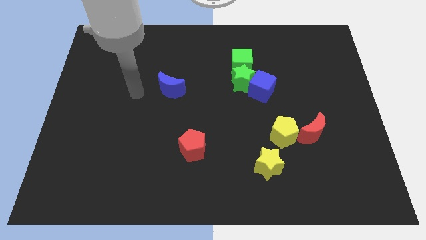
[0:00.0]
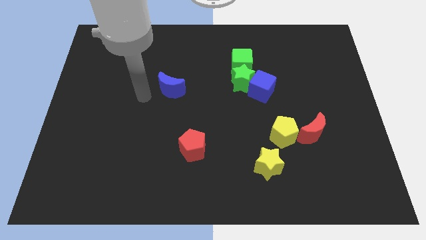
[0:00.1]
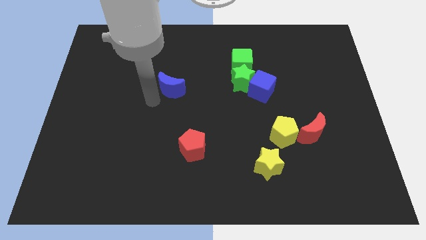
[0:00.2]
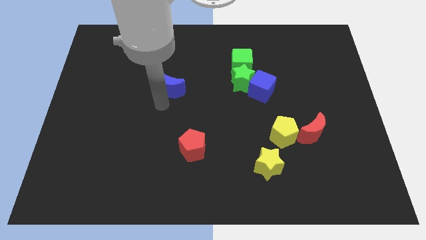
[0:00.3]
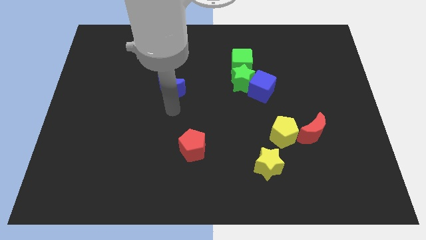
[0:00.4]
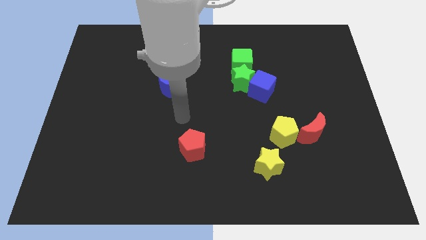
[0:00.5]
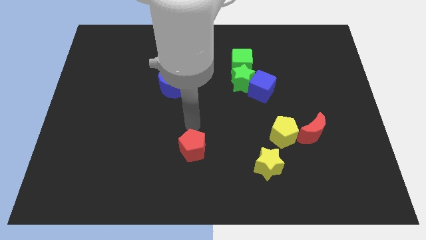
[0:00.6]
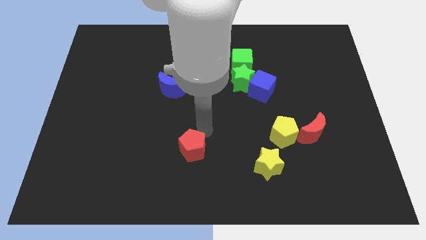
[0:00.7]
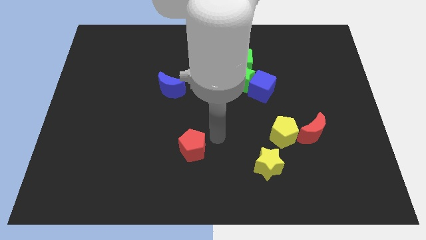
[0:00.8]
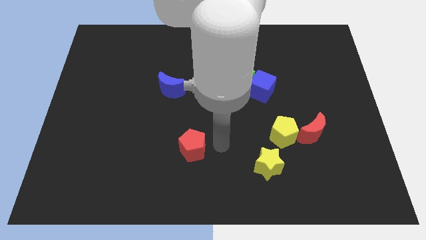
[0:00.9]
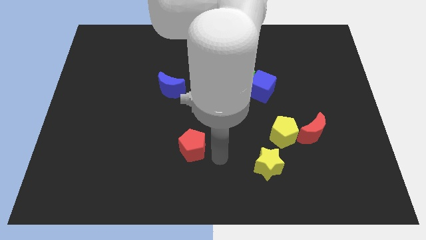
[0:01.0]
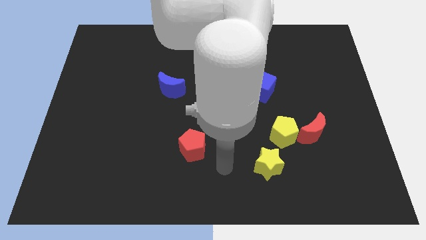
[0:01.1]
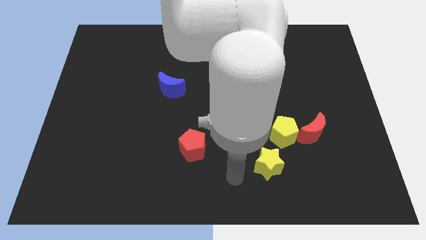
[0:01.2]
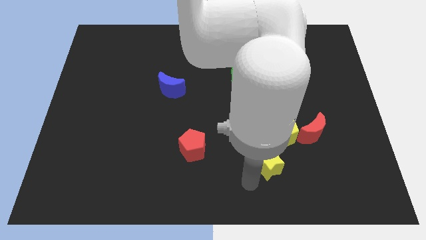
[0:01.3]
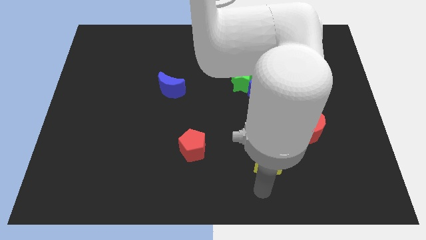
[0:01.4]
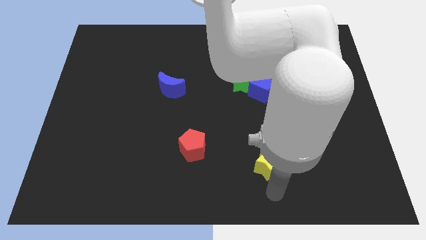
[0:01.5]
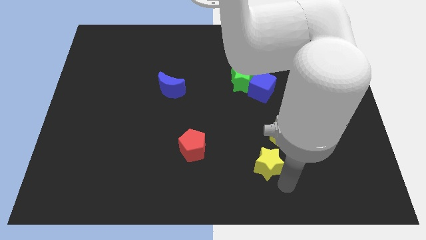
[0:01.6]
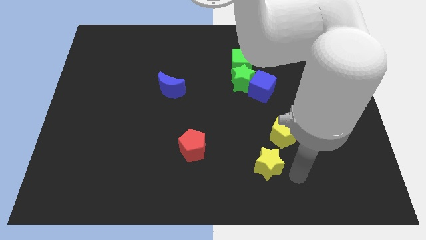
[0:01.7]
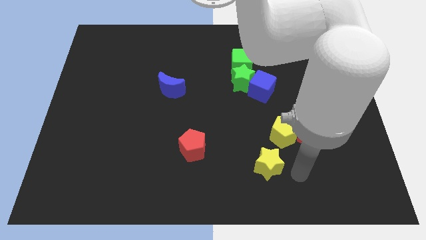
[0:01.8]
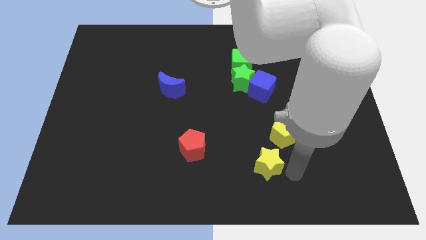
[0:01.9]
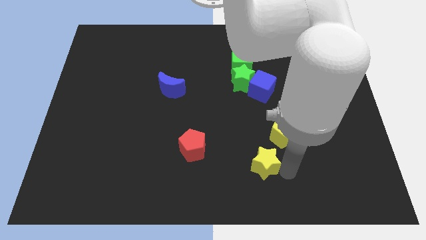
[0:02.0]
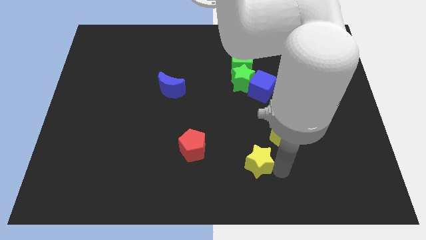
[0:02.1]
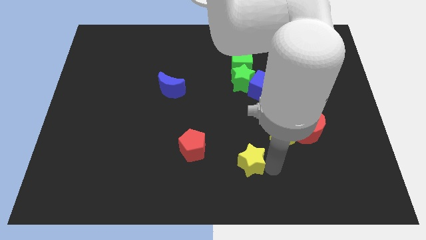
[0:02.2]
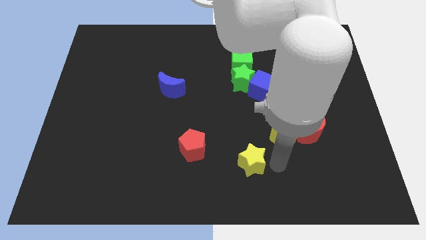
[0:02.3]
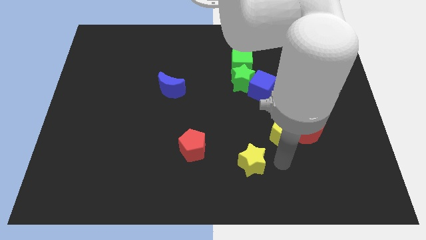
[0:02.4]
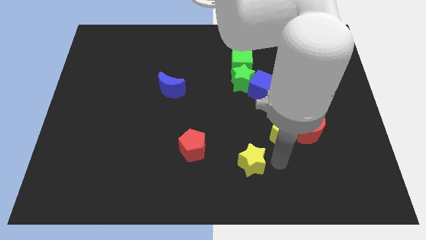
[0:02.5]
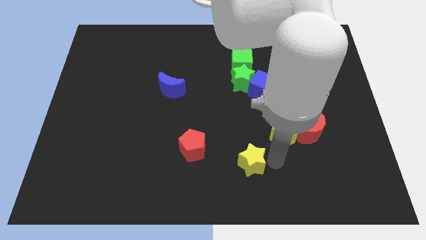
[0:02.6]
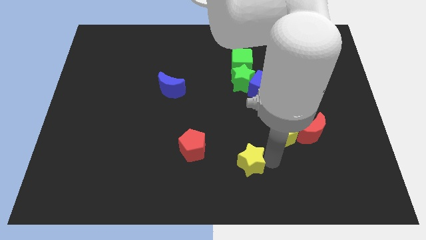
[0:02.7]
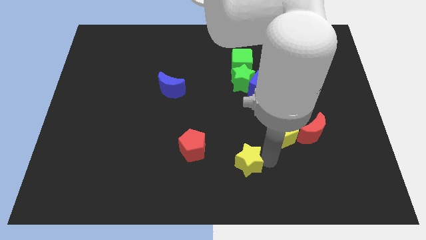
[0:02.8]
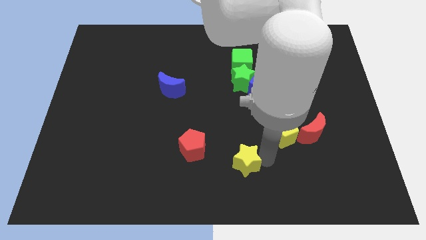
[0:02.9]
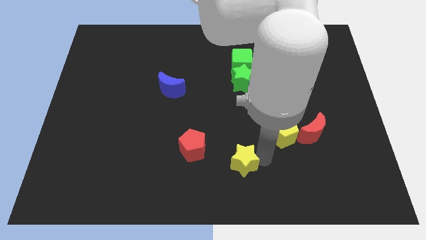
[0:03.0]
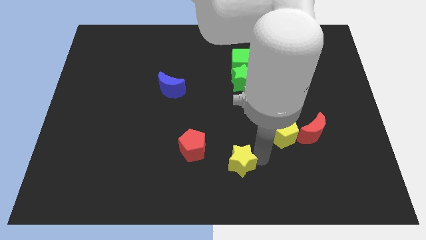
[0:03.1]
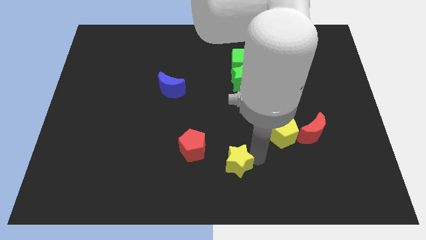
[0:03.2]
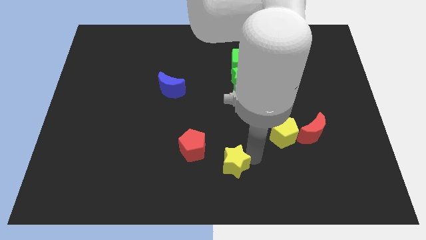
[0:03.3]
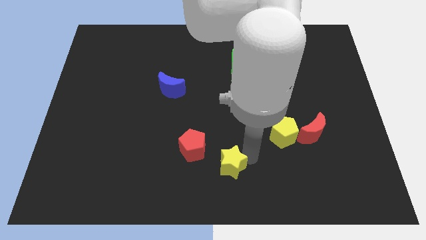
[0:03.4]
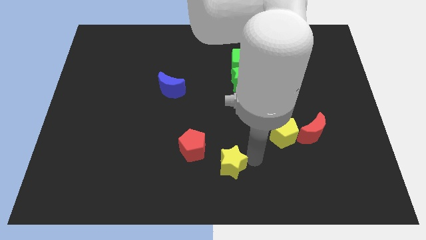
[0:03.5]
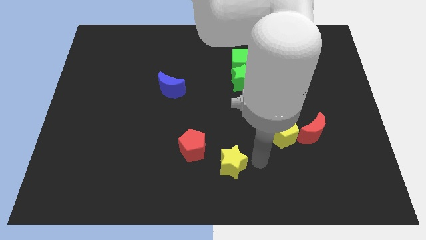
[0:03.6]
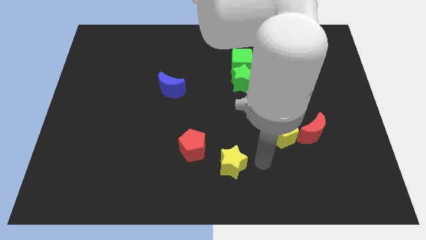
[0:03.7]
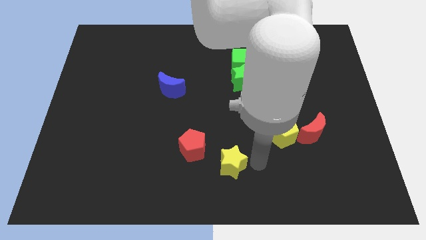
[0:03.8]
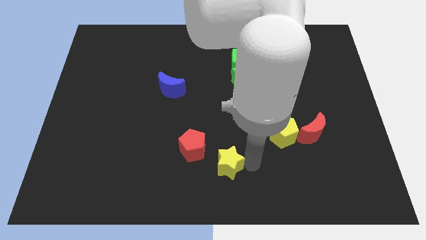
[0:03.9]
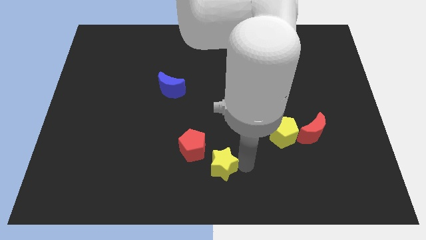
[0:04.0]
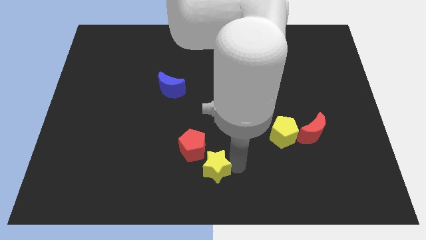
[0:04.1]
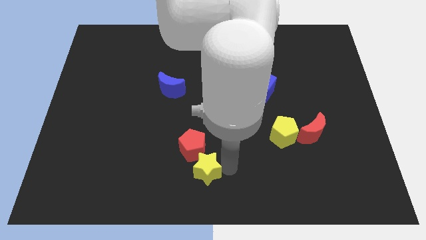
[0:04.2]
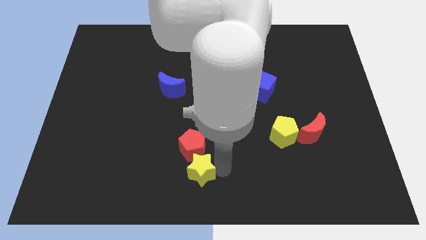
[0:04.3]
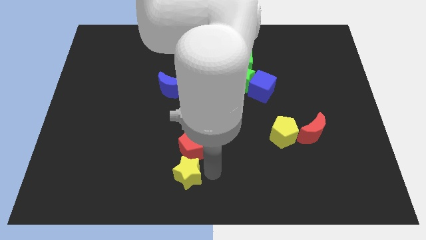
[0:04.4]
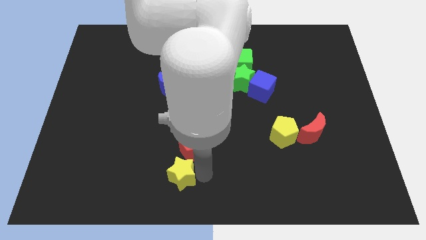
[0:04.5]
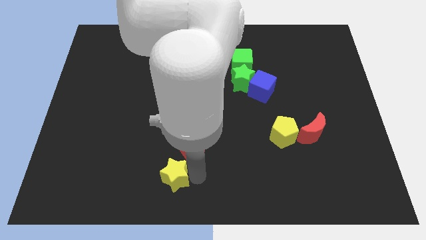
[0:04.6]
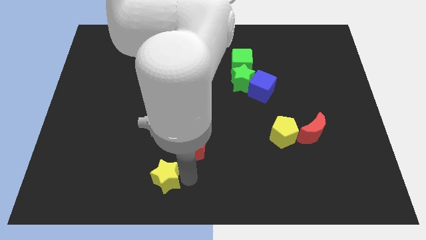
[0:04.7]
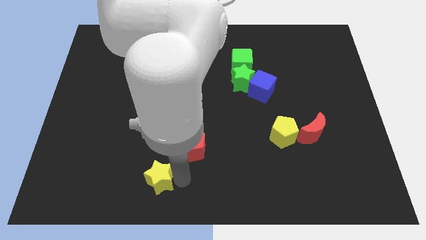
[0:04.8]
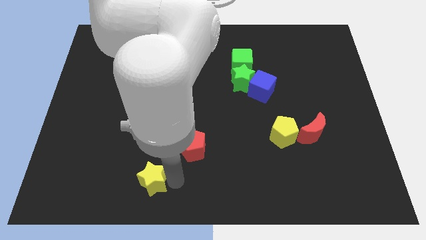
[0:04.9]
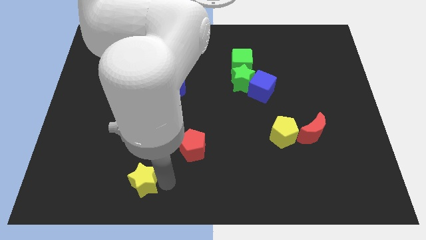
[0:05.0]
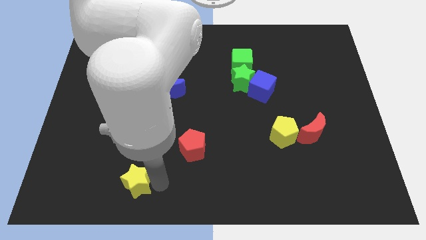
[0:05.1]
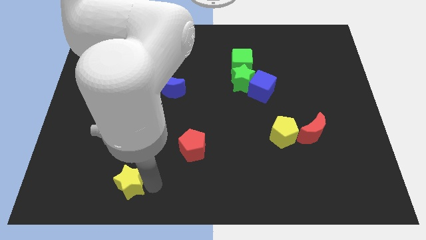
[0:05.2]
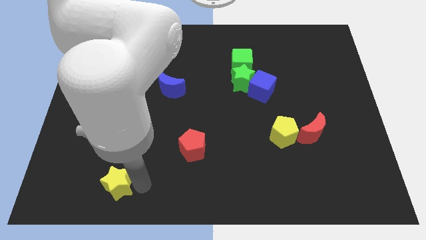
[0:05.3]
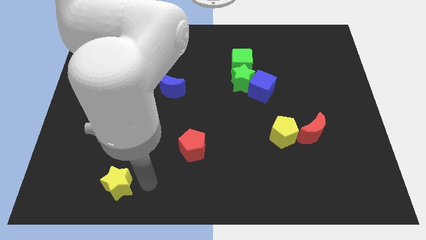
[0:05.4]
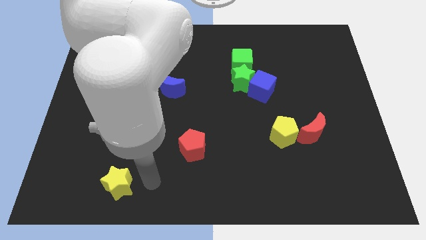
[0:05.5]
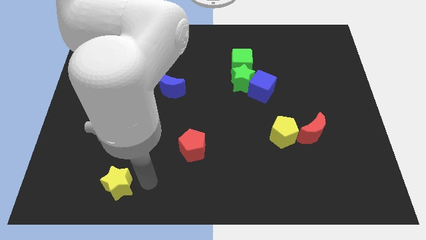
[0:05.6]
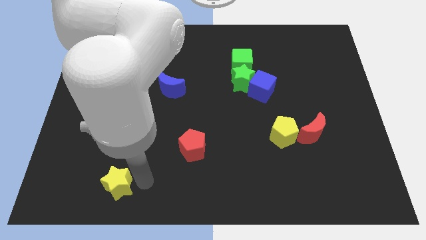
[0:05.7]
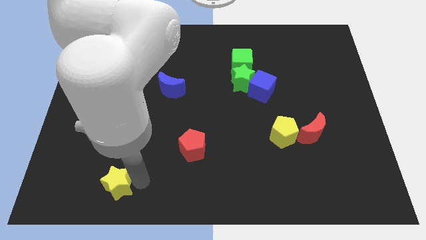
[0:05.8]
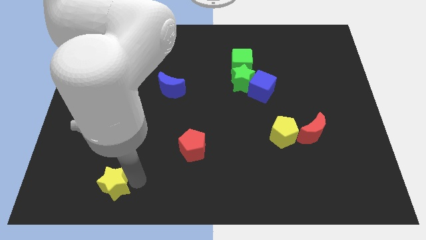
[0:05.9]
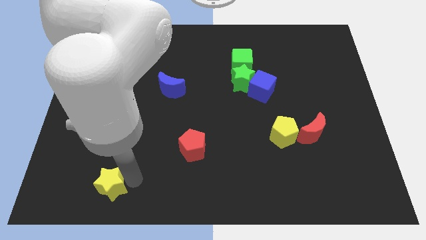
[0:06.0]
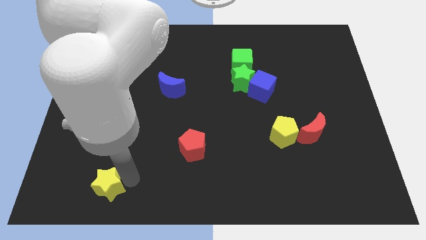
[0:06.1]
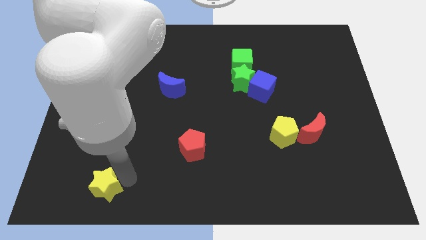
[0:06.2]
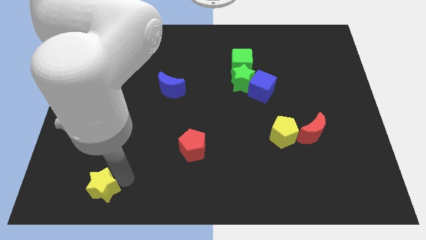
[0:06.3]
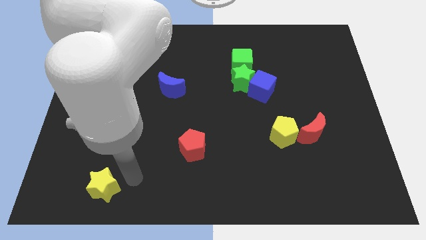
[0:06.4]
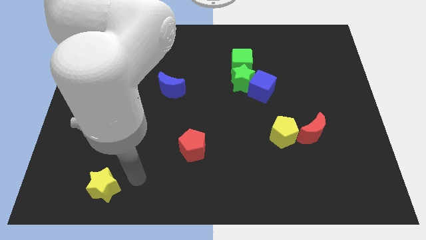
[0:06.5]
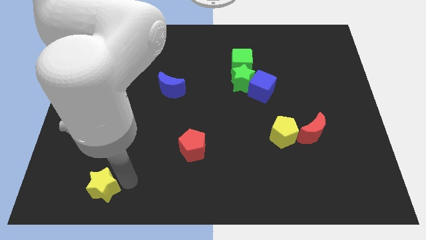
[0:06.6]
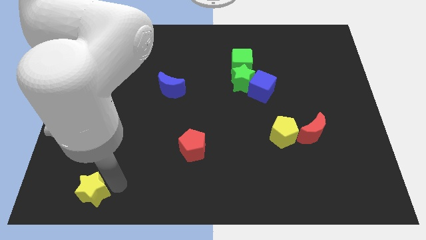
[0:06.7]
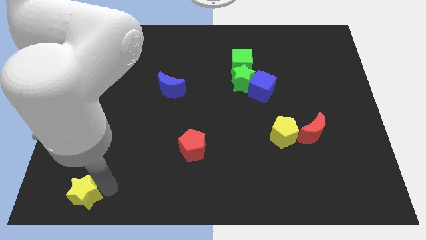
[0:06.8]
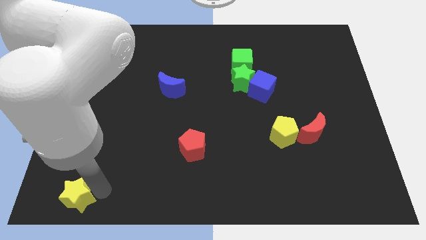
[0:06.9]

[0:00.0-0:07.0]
slide the yellow star to the bottom left of the board

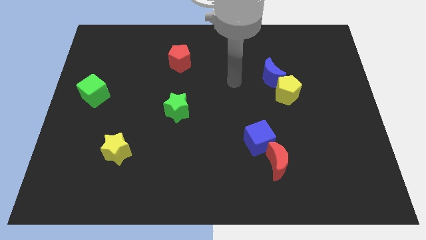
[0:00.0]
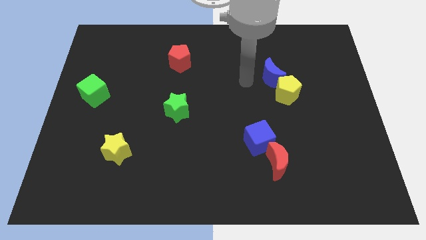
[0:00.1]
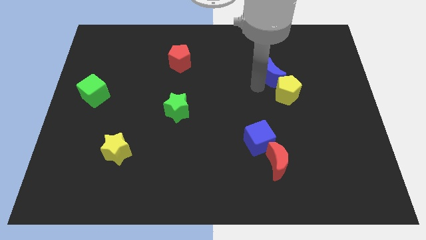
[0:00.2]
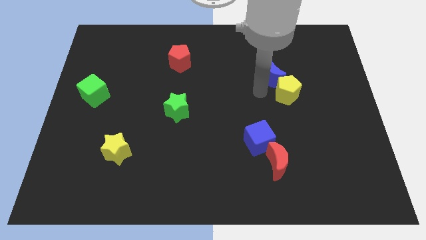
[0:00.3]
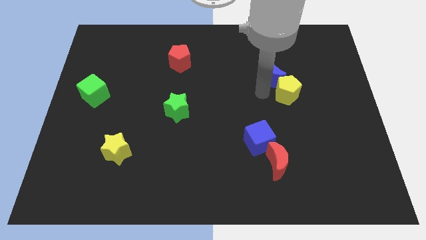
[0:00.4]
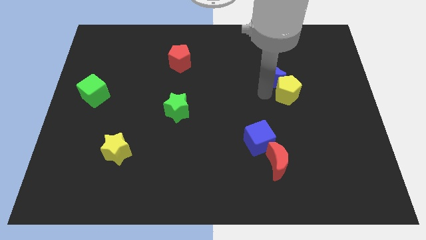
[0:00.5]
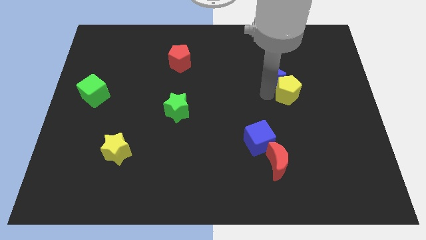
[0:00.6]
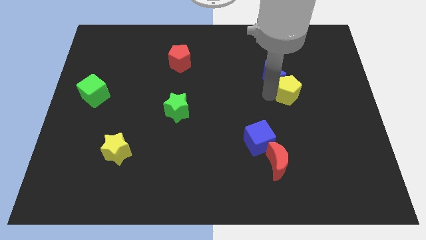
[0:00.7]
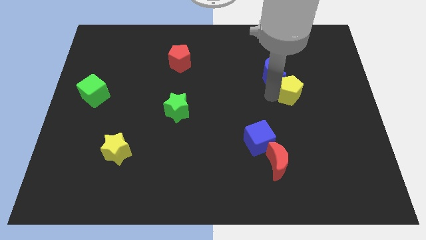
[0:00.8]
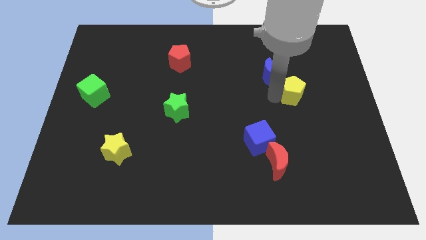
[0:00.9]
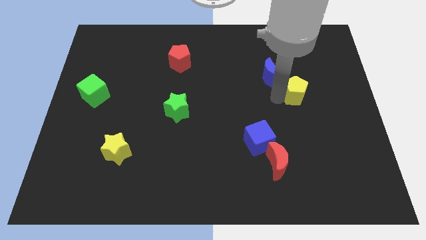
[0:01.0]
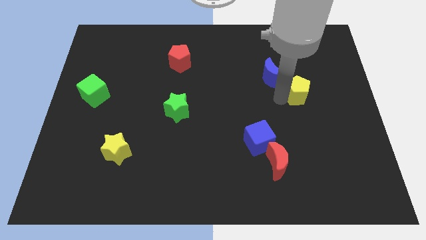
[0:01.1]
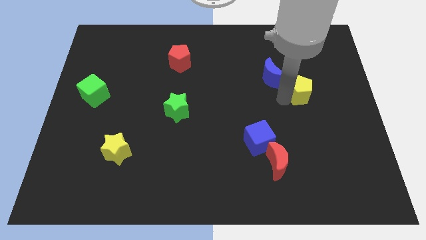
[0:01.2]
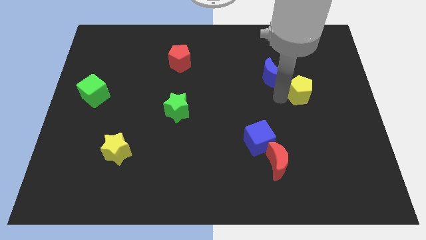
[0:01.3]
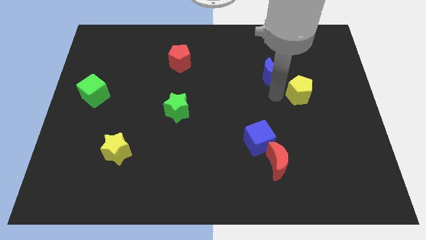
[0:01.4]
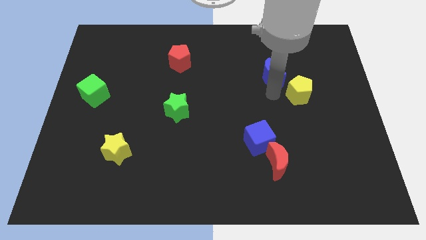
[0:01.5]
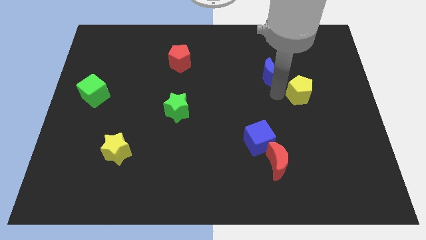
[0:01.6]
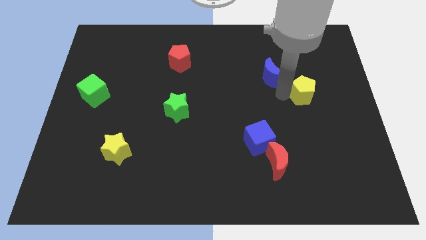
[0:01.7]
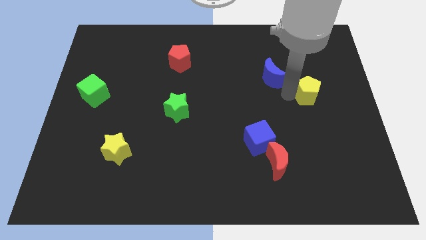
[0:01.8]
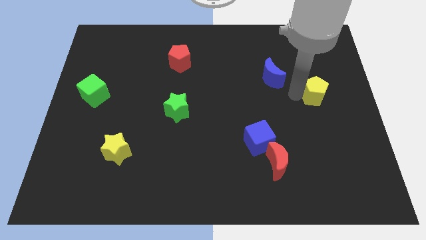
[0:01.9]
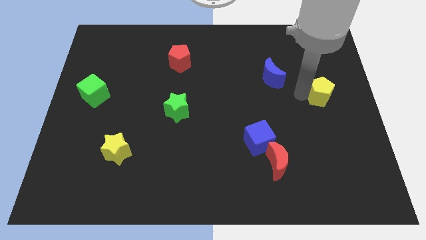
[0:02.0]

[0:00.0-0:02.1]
move the yellow pentagon to the center right
